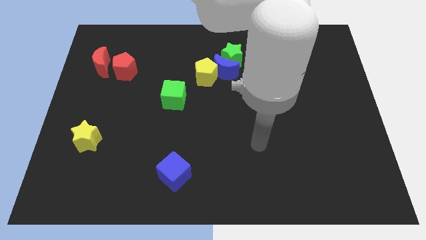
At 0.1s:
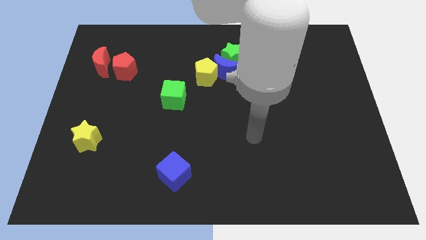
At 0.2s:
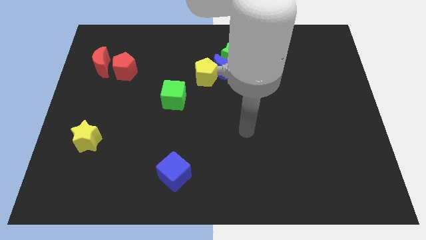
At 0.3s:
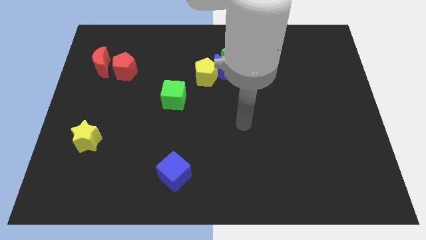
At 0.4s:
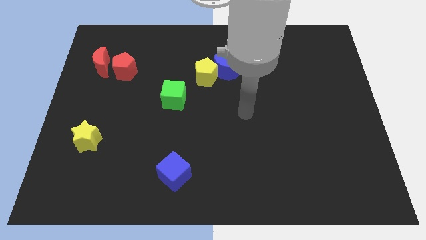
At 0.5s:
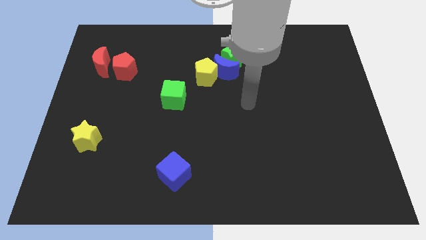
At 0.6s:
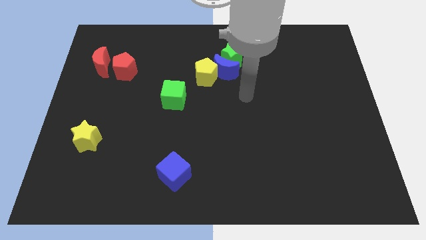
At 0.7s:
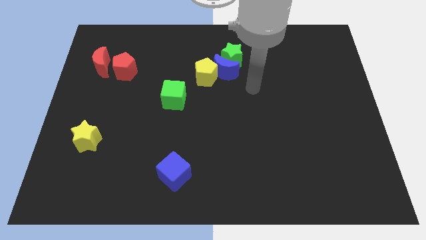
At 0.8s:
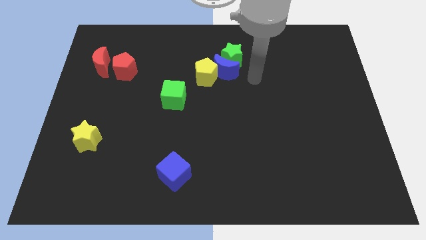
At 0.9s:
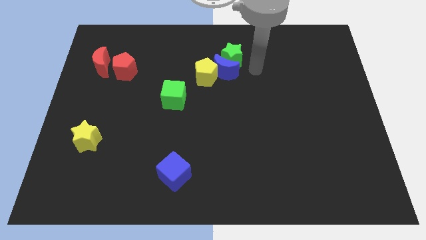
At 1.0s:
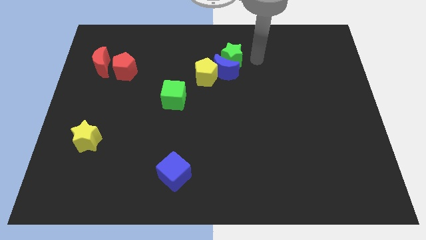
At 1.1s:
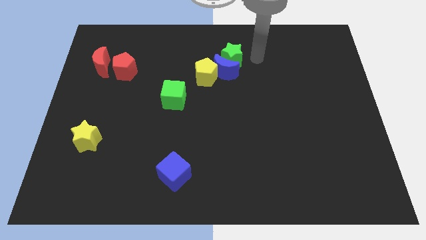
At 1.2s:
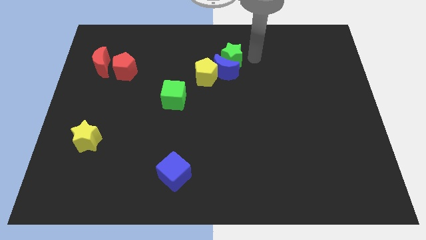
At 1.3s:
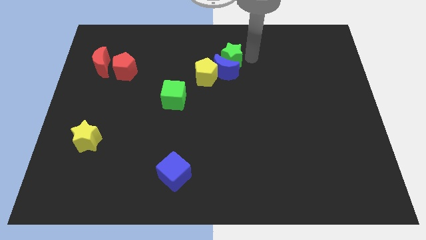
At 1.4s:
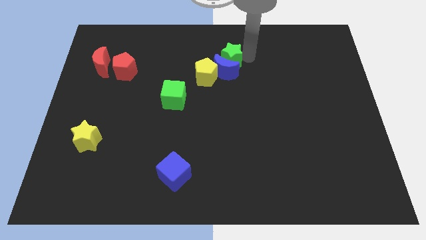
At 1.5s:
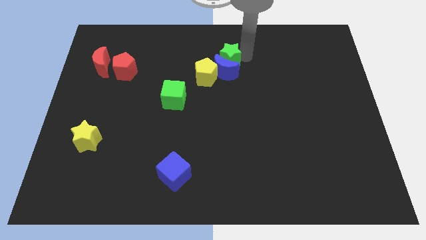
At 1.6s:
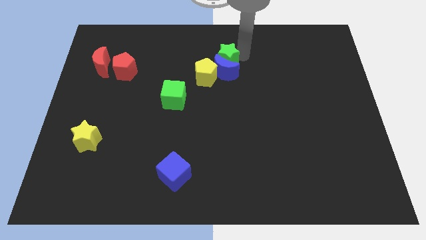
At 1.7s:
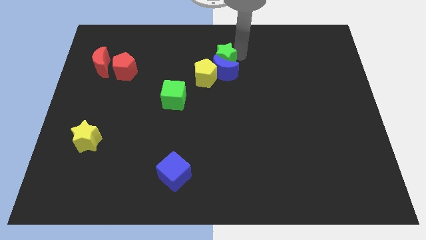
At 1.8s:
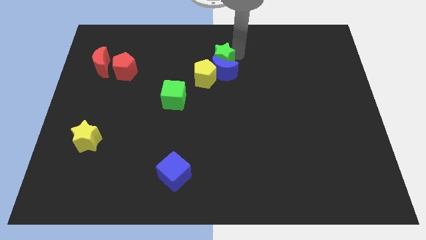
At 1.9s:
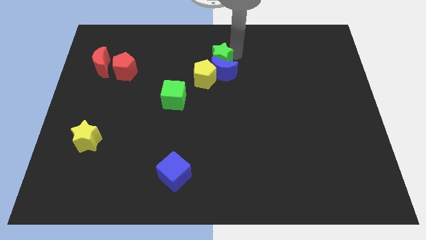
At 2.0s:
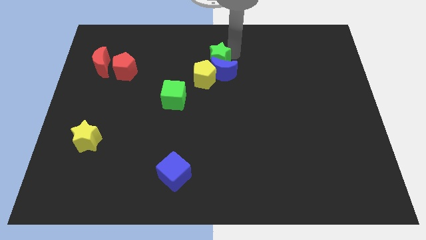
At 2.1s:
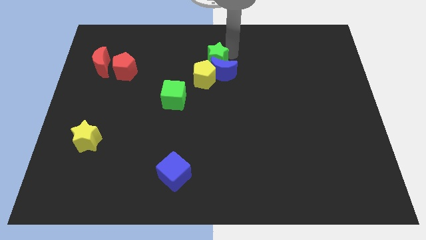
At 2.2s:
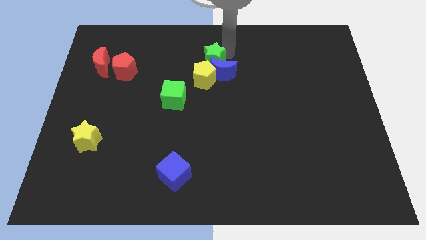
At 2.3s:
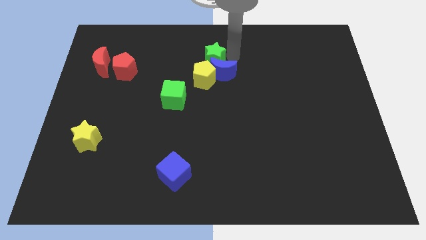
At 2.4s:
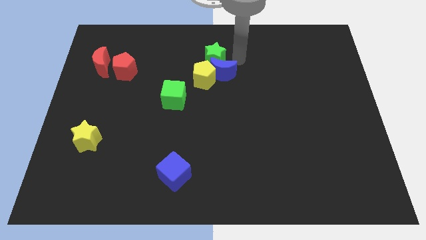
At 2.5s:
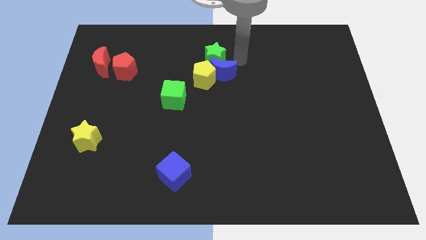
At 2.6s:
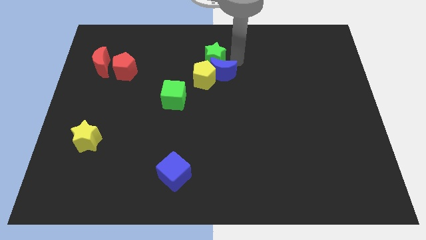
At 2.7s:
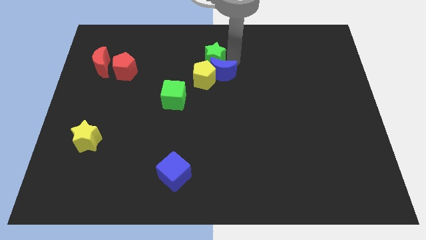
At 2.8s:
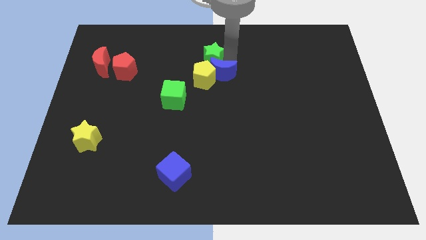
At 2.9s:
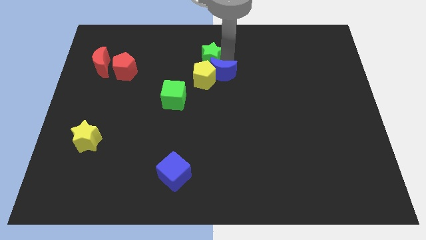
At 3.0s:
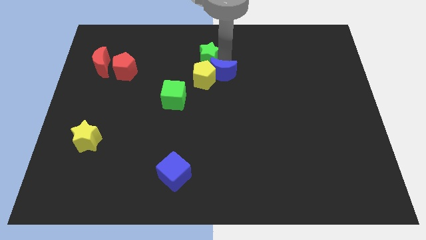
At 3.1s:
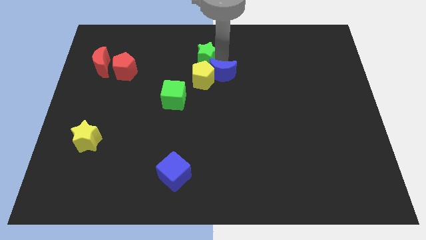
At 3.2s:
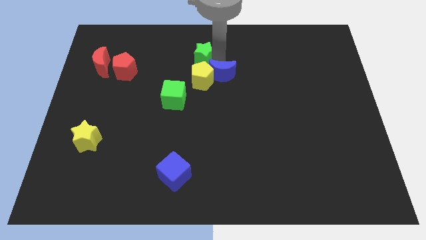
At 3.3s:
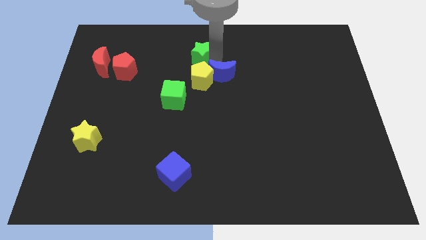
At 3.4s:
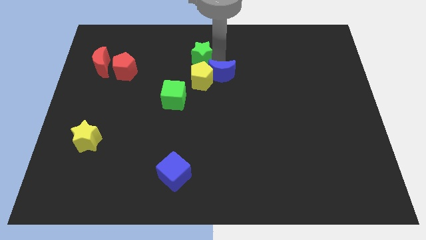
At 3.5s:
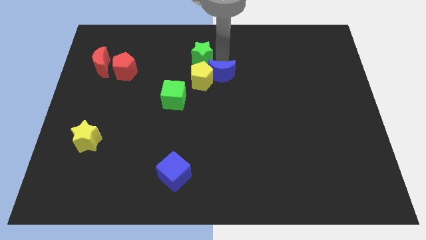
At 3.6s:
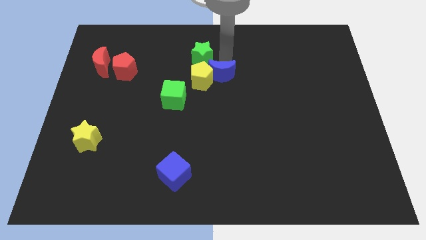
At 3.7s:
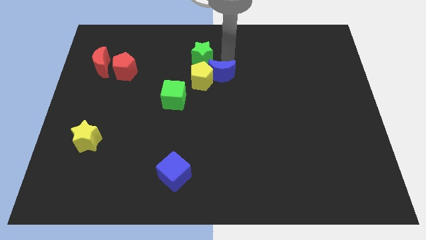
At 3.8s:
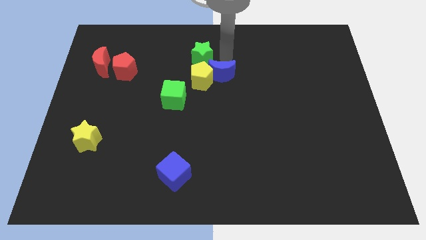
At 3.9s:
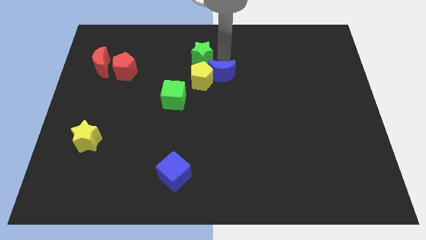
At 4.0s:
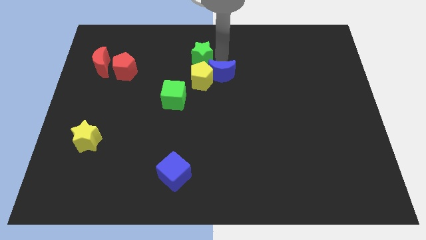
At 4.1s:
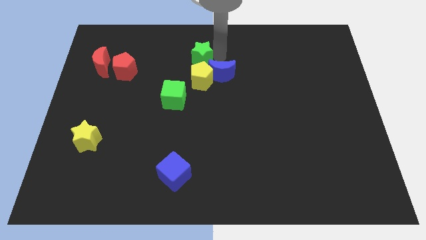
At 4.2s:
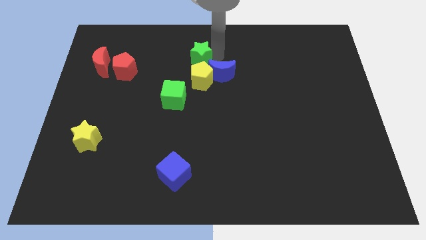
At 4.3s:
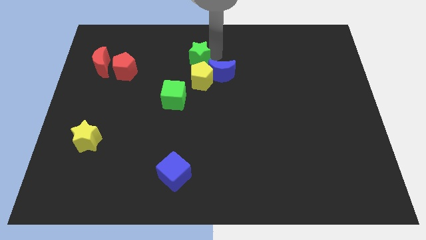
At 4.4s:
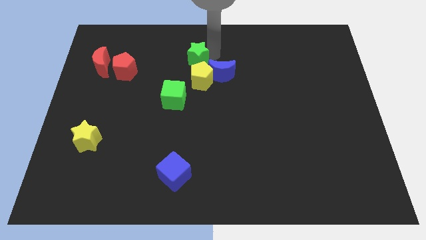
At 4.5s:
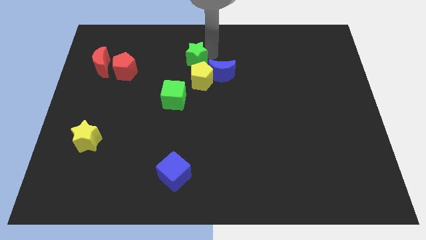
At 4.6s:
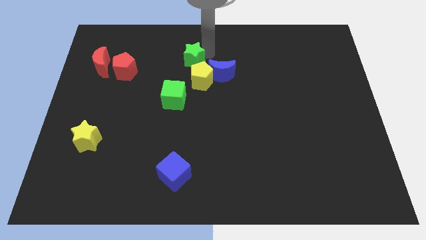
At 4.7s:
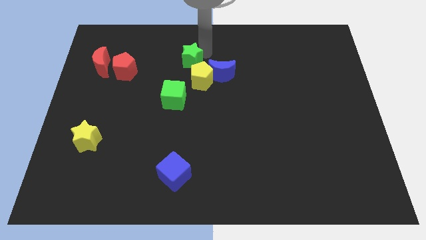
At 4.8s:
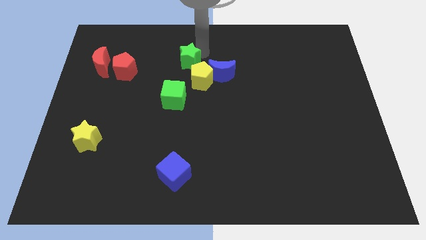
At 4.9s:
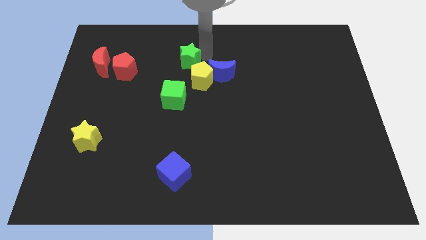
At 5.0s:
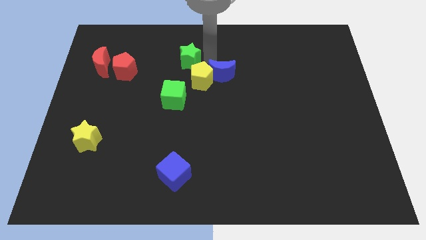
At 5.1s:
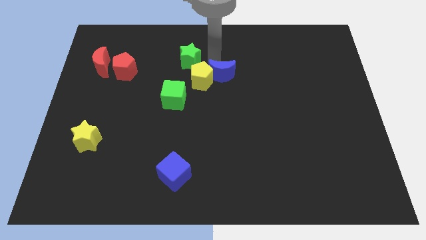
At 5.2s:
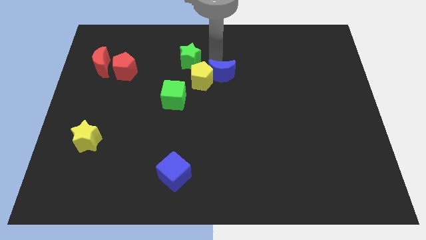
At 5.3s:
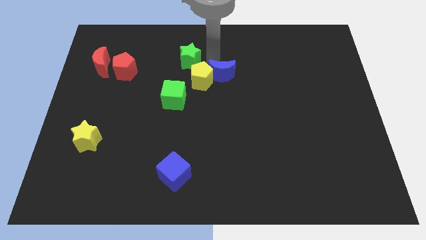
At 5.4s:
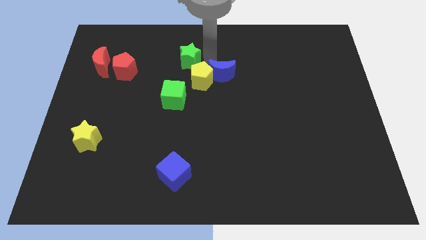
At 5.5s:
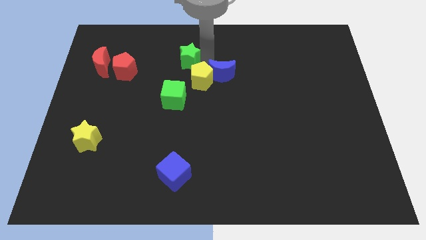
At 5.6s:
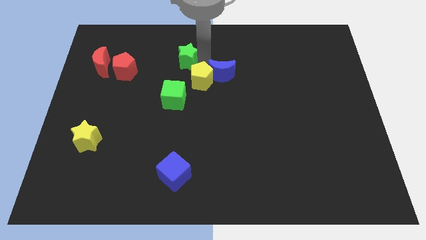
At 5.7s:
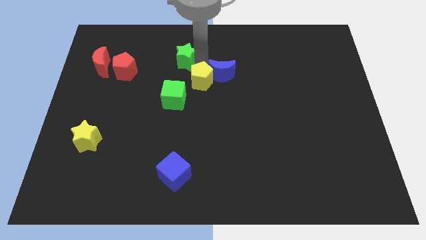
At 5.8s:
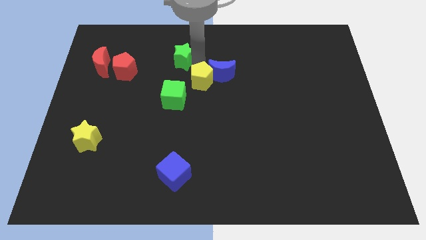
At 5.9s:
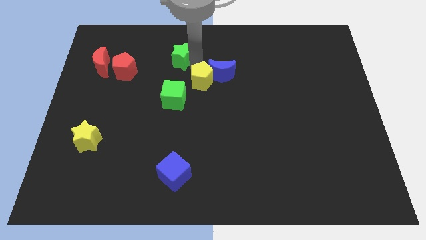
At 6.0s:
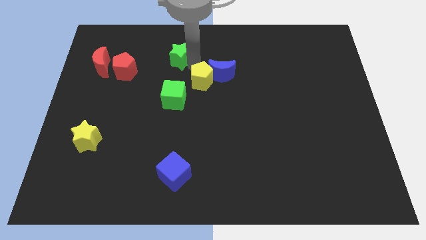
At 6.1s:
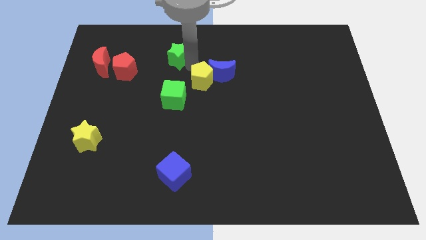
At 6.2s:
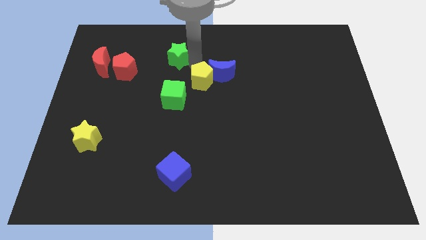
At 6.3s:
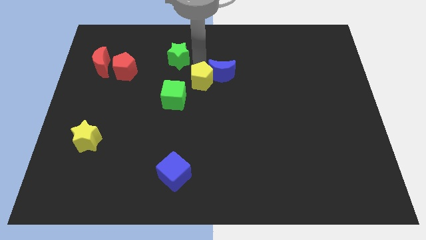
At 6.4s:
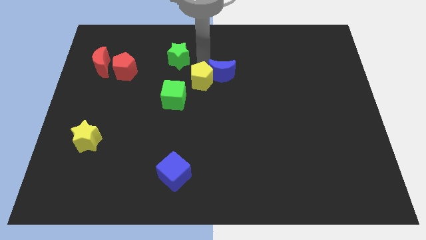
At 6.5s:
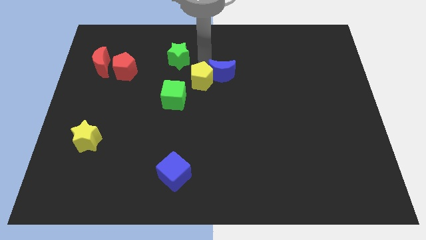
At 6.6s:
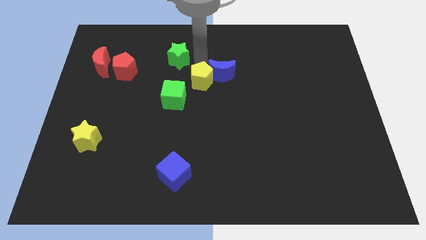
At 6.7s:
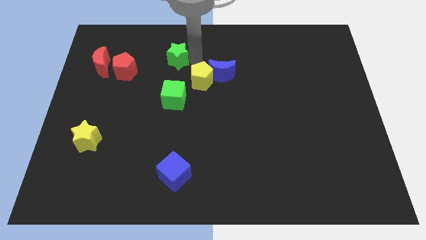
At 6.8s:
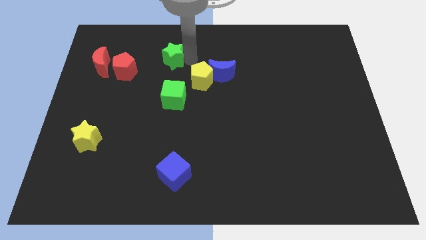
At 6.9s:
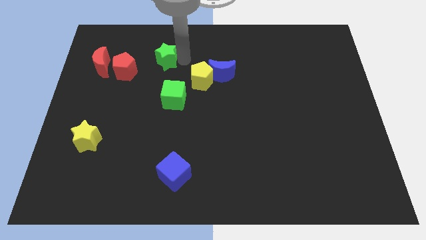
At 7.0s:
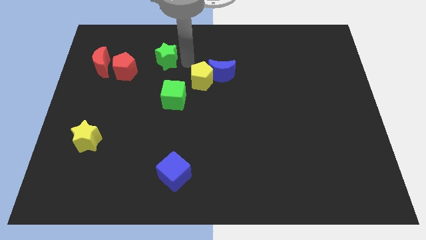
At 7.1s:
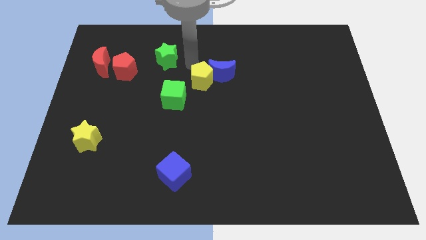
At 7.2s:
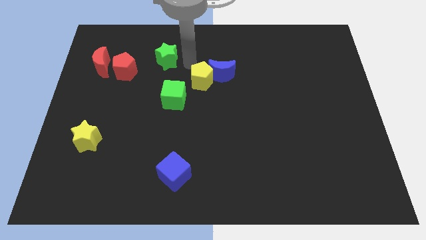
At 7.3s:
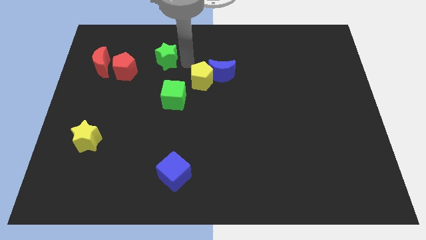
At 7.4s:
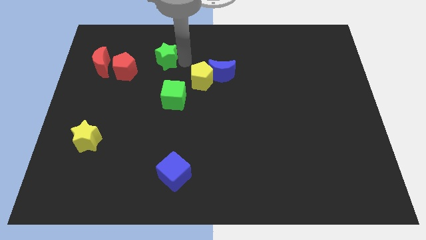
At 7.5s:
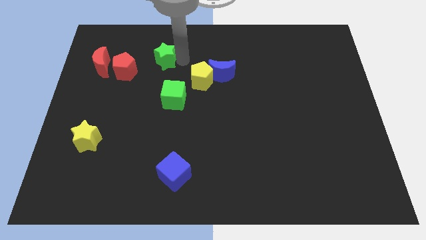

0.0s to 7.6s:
slide the green star to the top right of the red pentagon

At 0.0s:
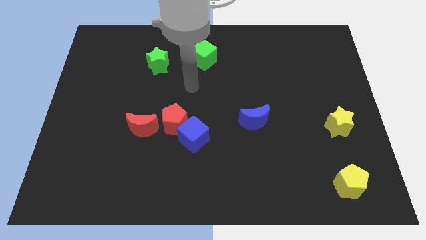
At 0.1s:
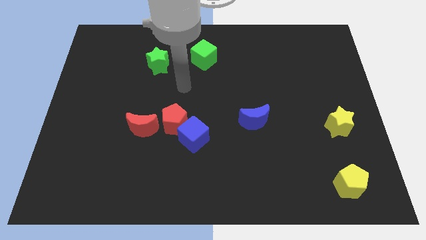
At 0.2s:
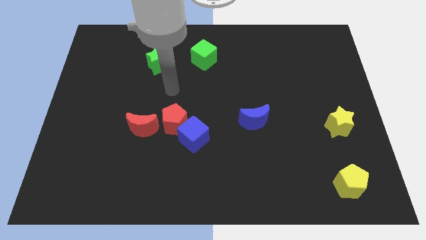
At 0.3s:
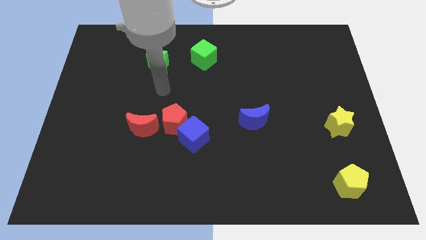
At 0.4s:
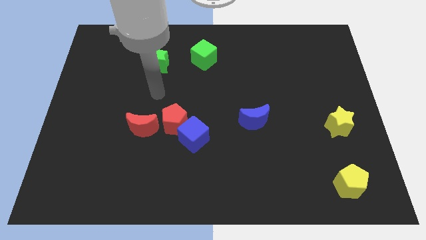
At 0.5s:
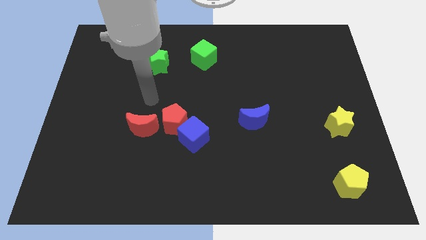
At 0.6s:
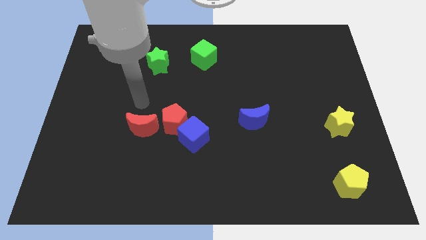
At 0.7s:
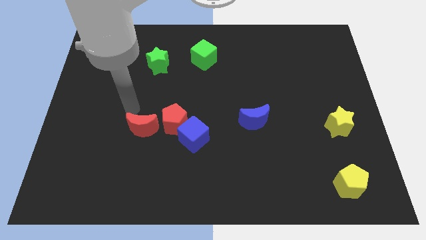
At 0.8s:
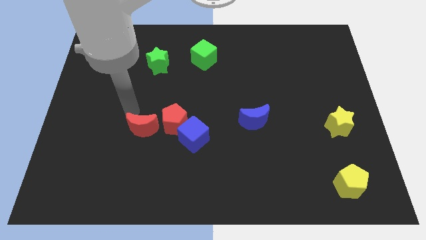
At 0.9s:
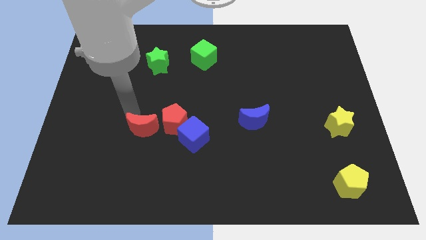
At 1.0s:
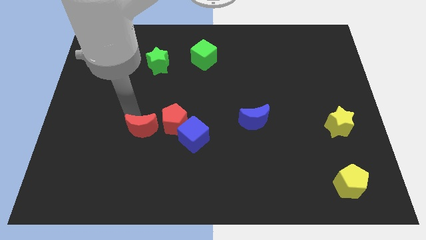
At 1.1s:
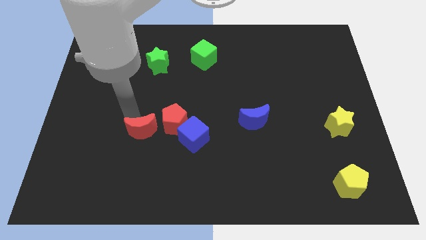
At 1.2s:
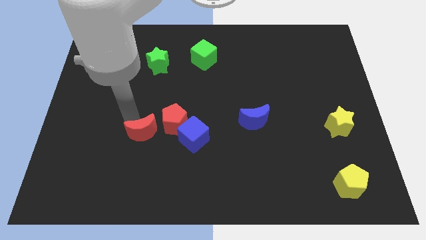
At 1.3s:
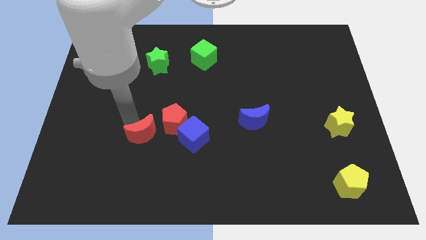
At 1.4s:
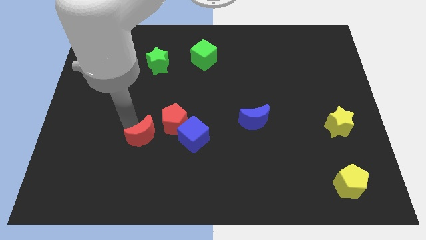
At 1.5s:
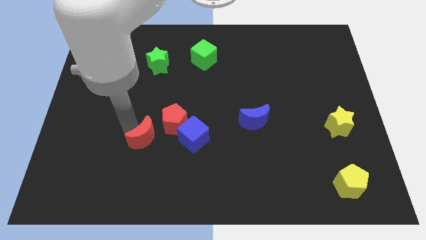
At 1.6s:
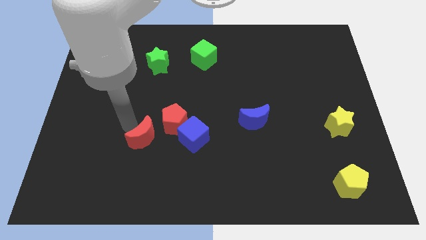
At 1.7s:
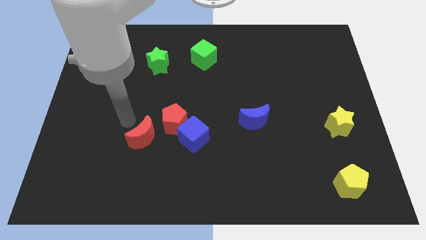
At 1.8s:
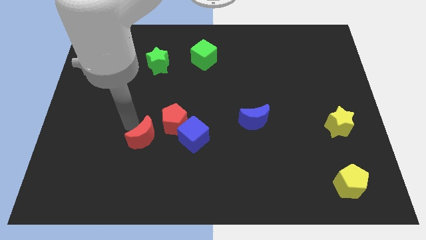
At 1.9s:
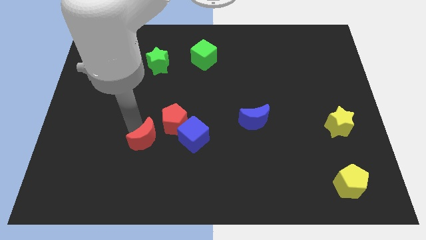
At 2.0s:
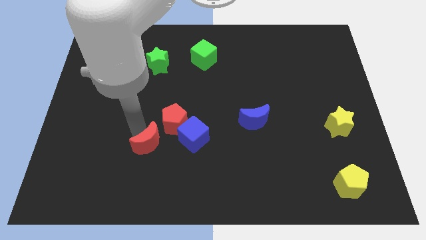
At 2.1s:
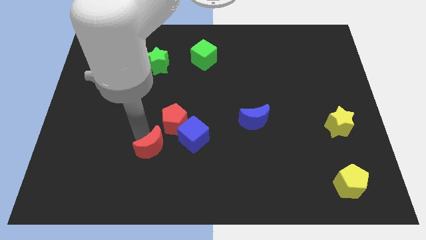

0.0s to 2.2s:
put the red moon to the bottom of the red pentagon
